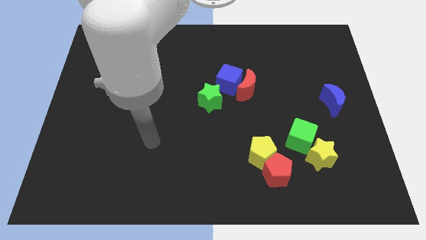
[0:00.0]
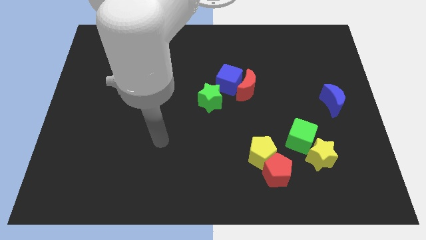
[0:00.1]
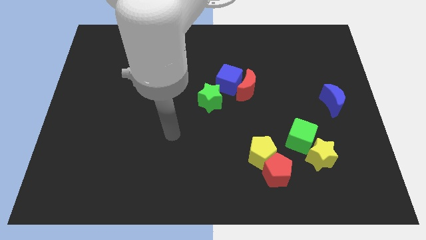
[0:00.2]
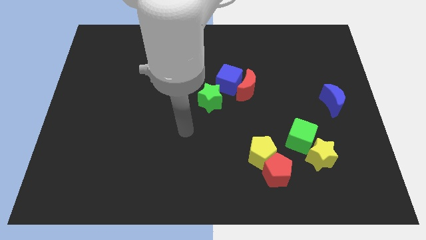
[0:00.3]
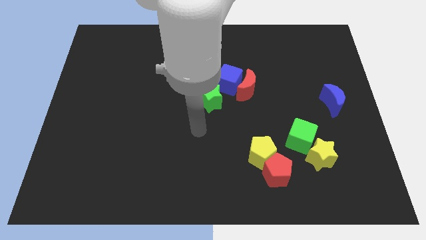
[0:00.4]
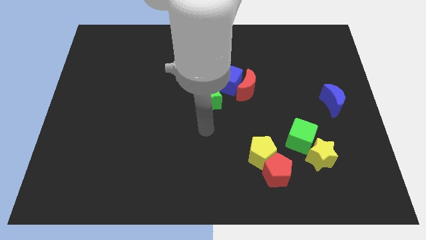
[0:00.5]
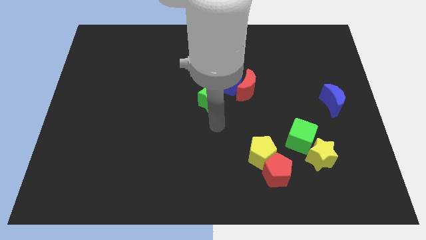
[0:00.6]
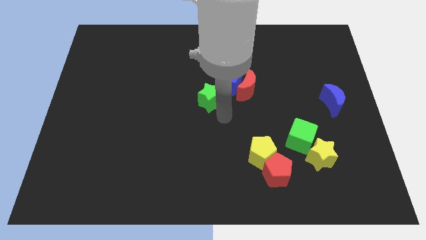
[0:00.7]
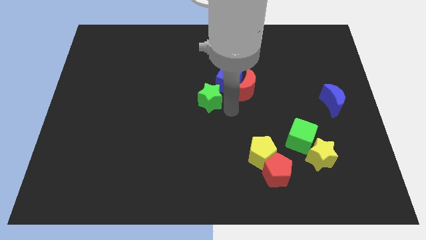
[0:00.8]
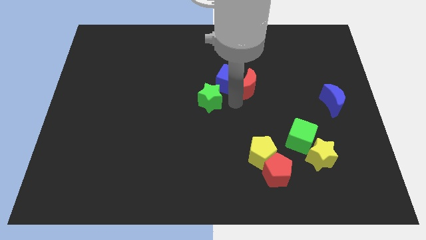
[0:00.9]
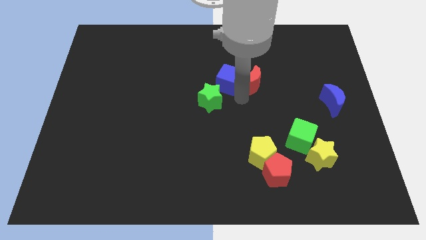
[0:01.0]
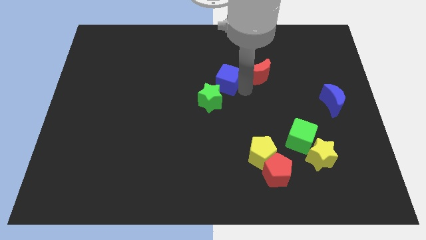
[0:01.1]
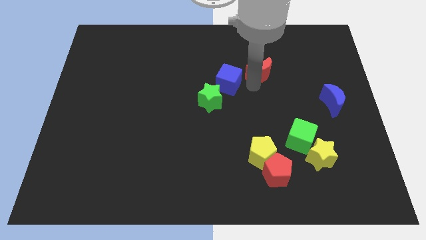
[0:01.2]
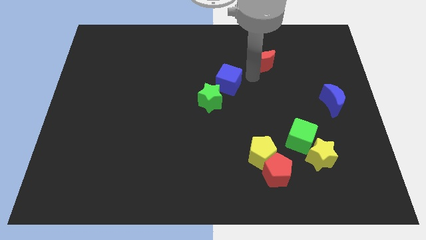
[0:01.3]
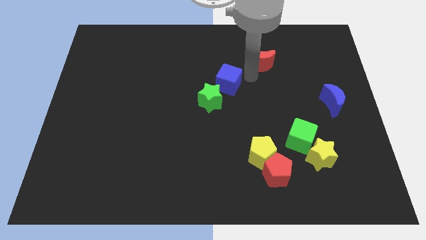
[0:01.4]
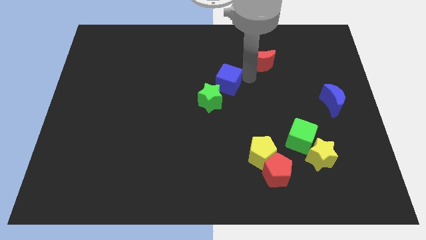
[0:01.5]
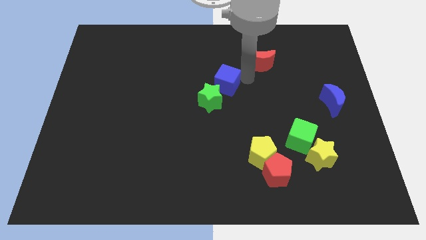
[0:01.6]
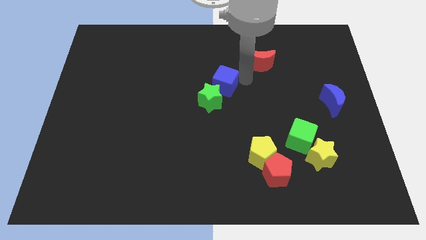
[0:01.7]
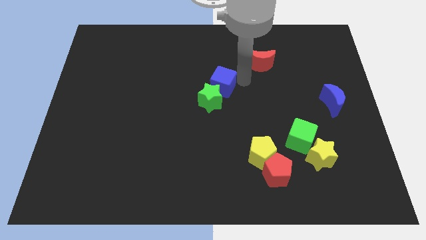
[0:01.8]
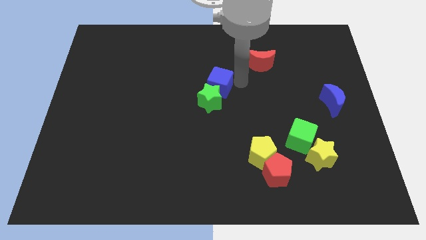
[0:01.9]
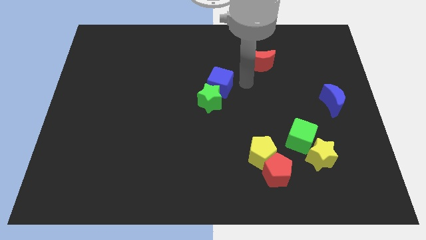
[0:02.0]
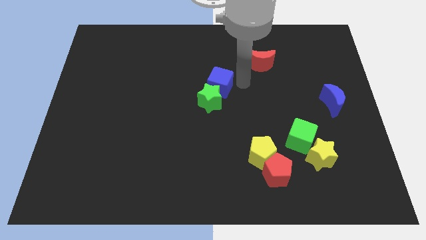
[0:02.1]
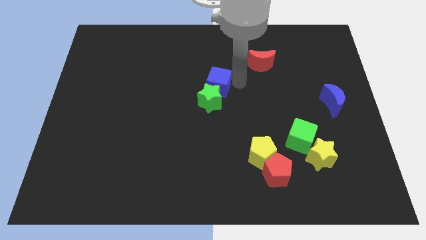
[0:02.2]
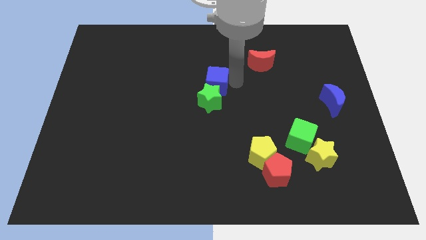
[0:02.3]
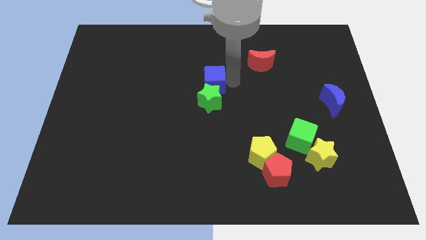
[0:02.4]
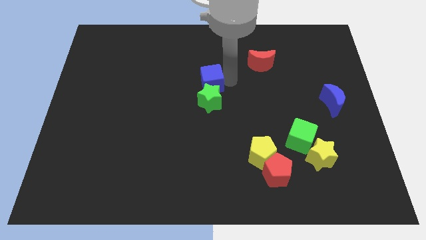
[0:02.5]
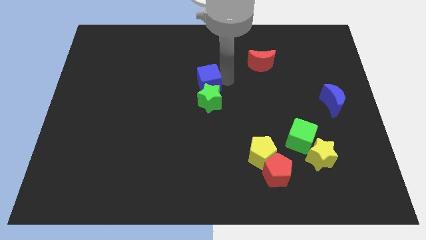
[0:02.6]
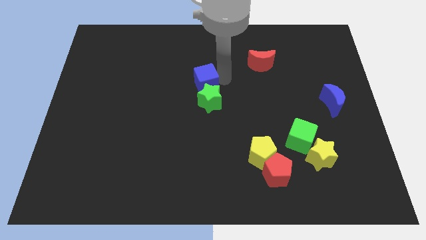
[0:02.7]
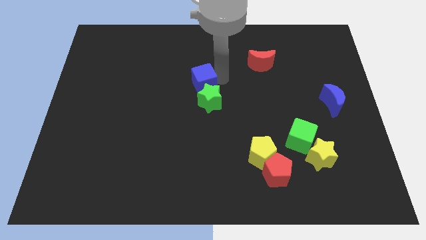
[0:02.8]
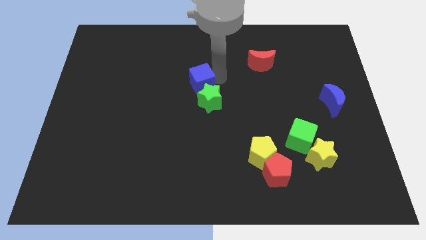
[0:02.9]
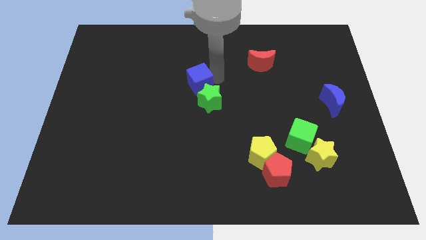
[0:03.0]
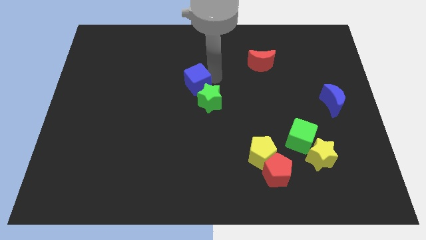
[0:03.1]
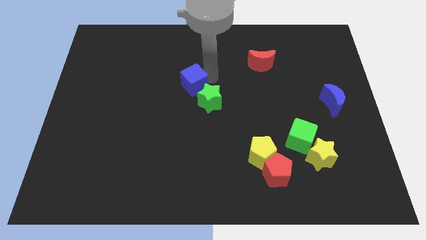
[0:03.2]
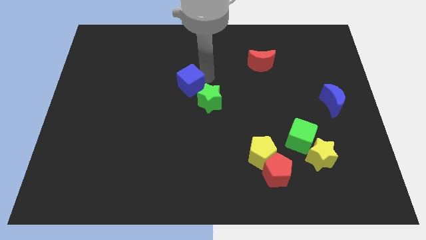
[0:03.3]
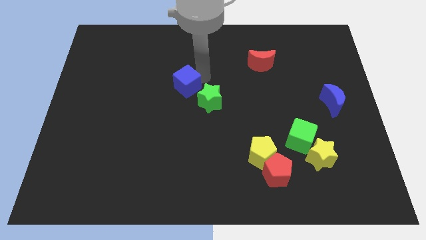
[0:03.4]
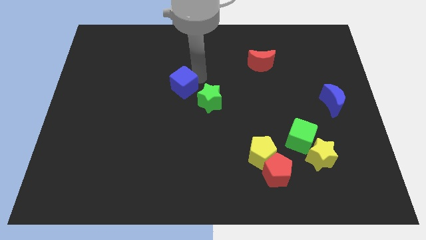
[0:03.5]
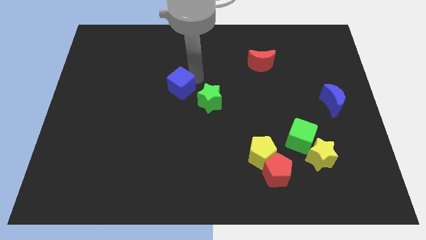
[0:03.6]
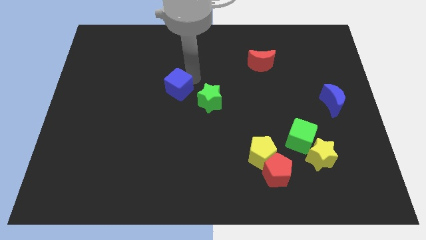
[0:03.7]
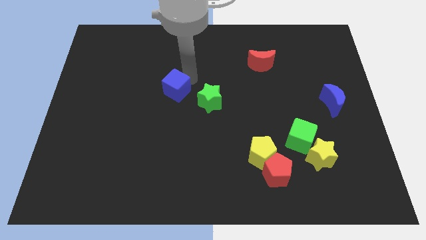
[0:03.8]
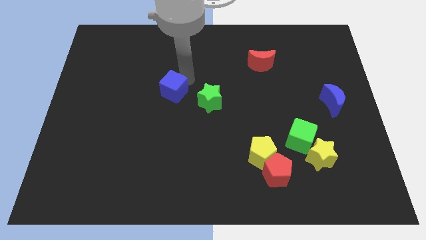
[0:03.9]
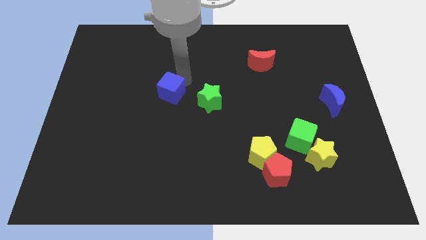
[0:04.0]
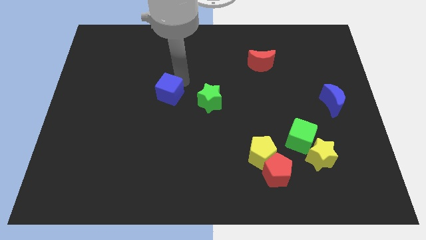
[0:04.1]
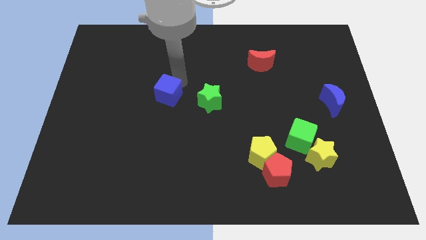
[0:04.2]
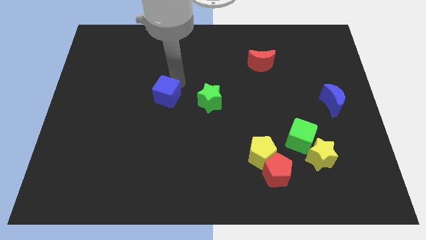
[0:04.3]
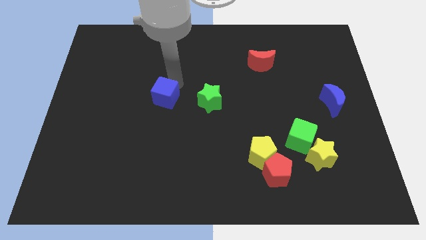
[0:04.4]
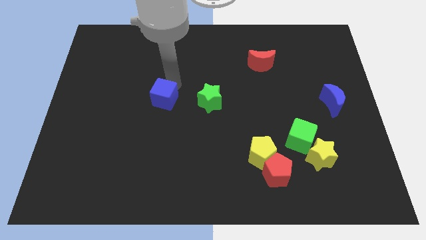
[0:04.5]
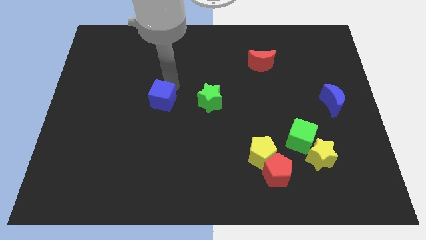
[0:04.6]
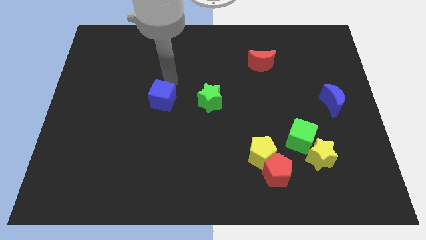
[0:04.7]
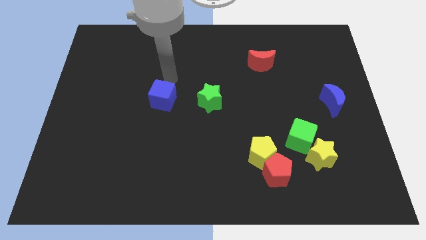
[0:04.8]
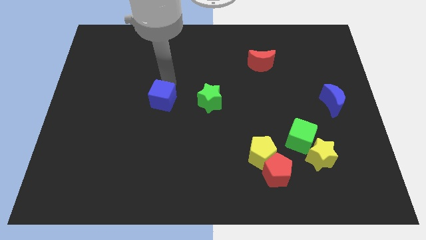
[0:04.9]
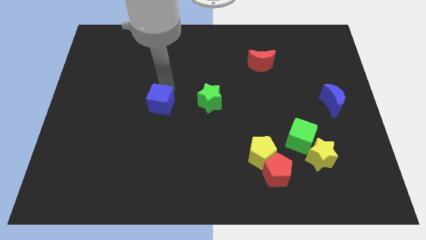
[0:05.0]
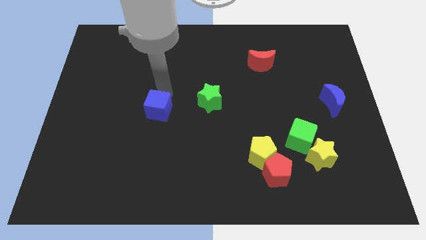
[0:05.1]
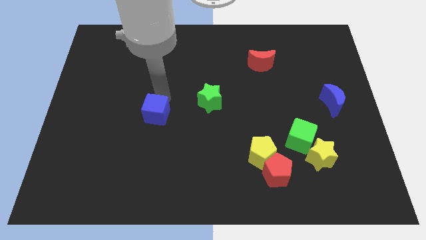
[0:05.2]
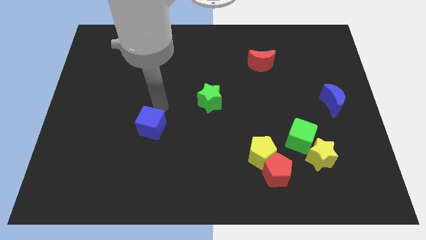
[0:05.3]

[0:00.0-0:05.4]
push the blue cube down and left diagonally

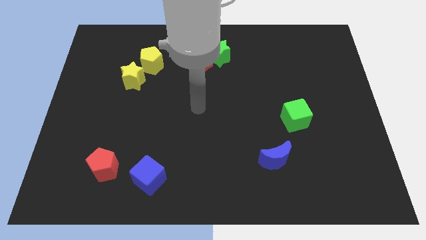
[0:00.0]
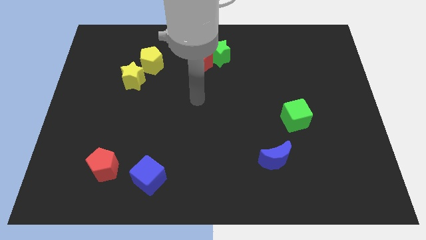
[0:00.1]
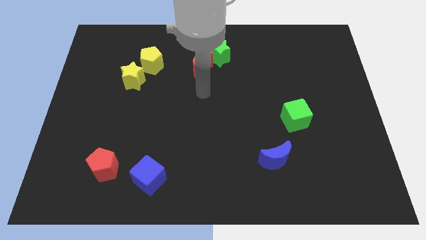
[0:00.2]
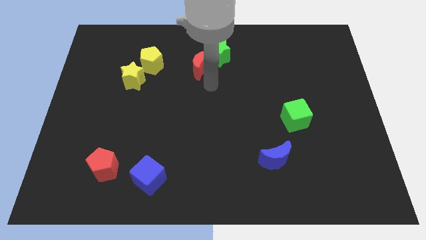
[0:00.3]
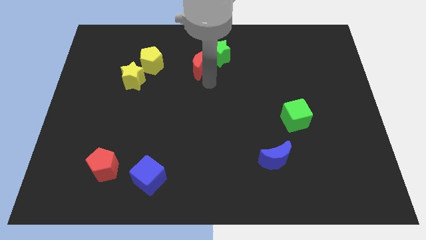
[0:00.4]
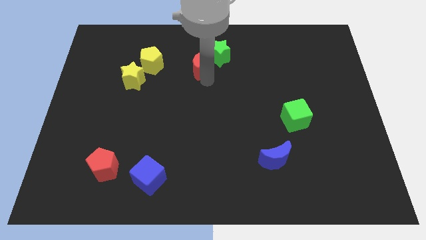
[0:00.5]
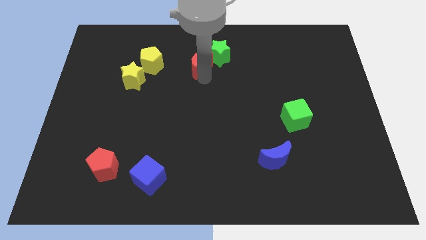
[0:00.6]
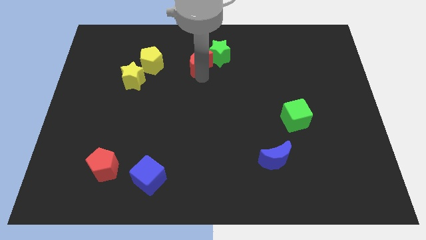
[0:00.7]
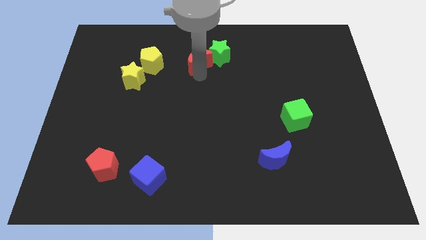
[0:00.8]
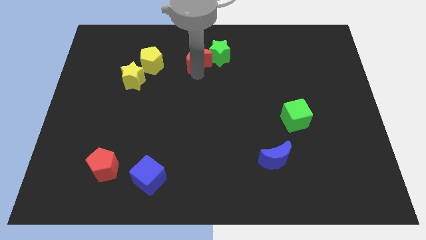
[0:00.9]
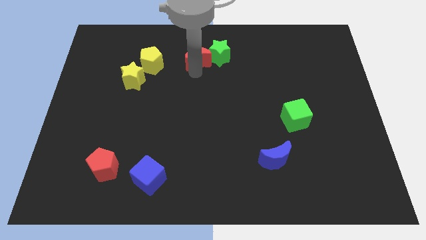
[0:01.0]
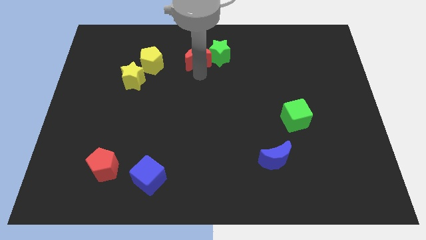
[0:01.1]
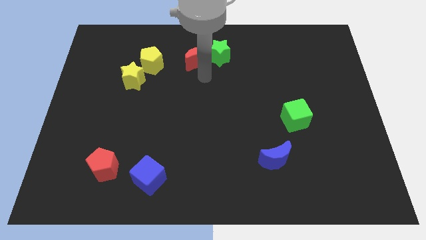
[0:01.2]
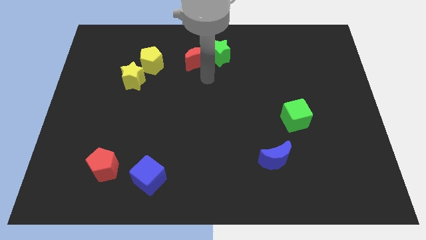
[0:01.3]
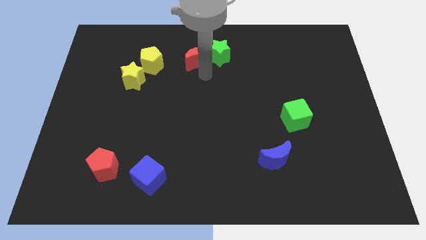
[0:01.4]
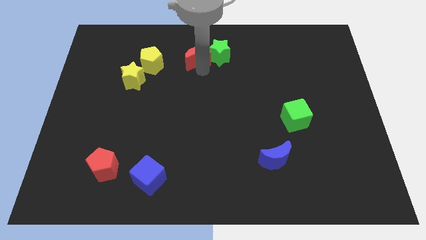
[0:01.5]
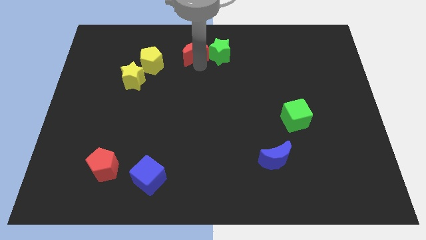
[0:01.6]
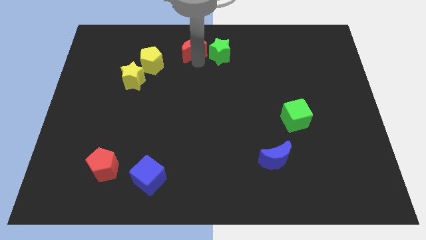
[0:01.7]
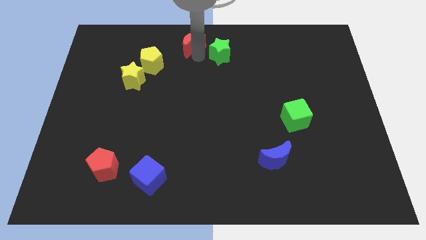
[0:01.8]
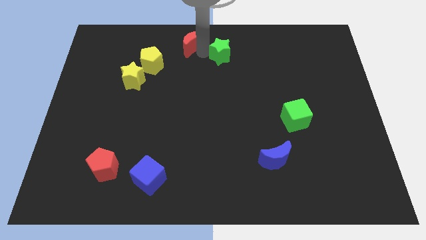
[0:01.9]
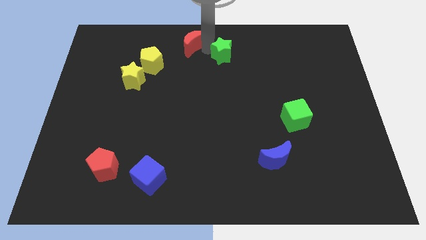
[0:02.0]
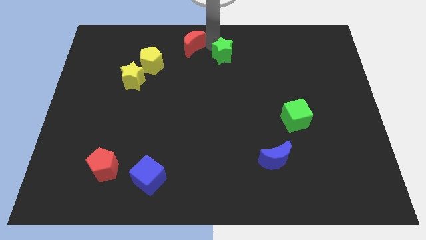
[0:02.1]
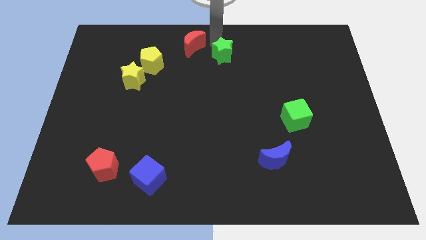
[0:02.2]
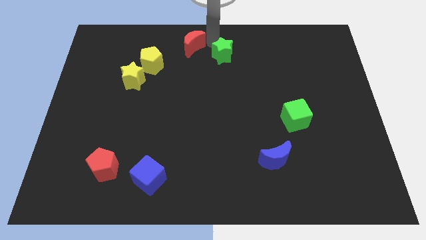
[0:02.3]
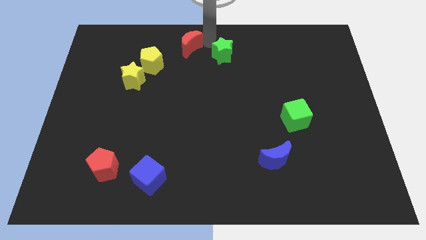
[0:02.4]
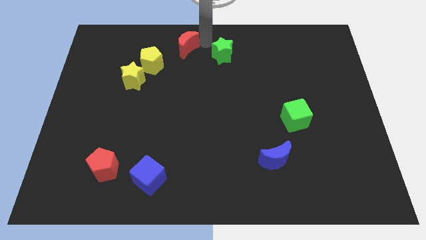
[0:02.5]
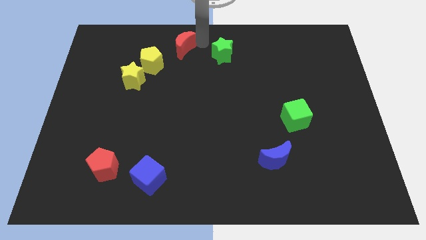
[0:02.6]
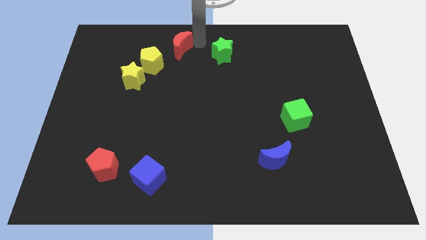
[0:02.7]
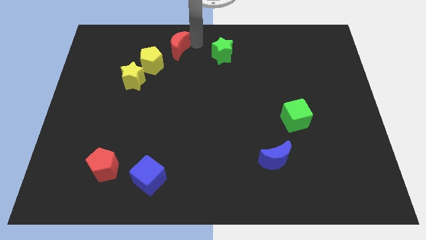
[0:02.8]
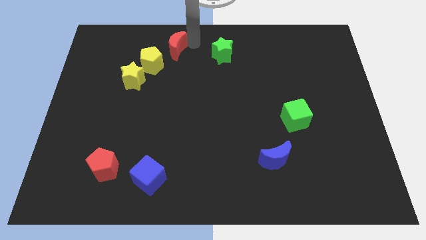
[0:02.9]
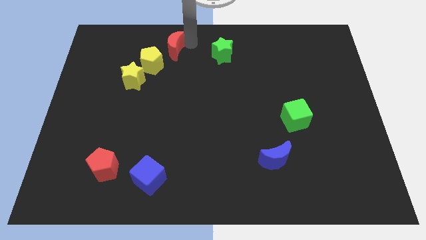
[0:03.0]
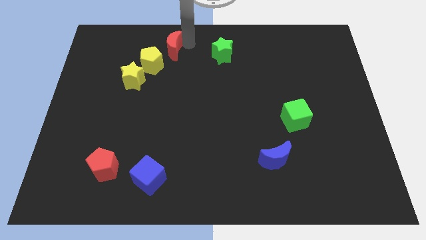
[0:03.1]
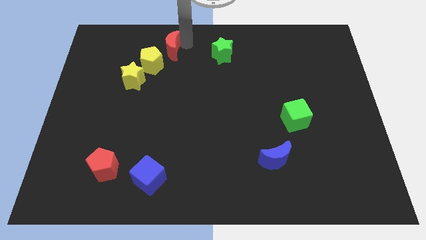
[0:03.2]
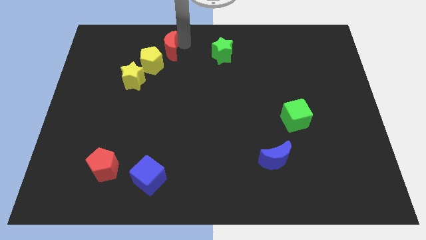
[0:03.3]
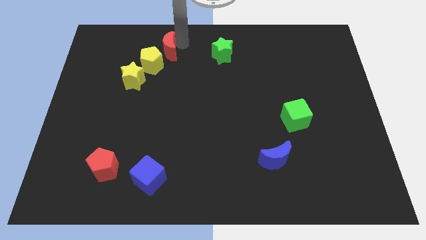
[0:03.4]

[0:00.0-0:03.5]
slightly push the red moon left
